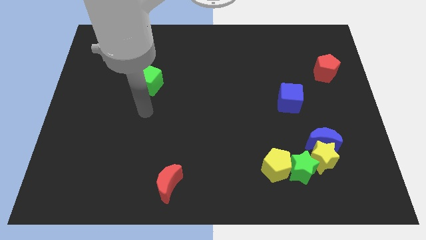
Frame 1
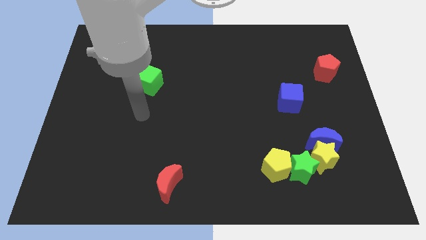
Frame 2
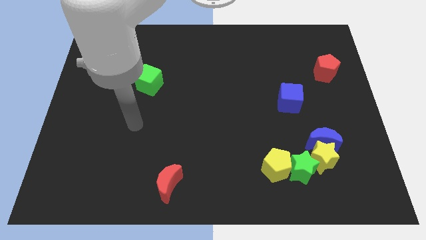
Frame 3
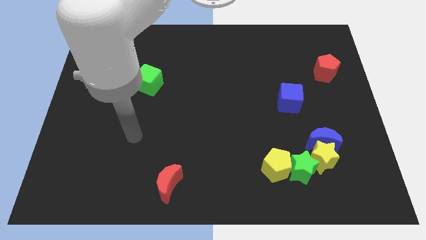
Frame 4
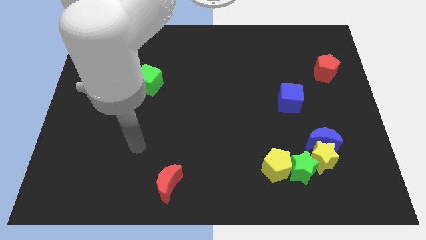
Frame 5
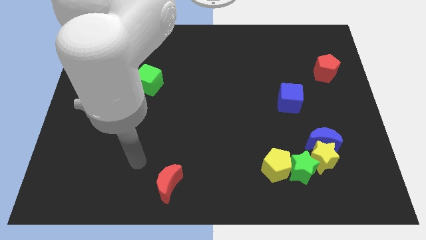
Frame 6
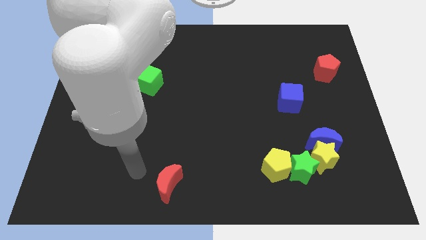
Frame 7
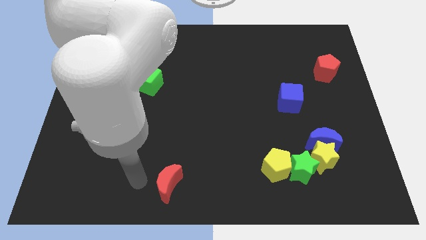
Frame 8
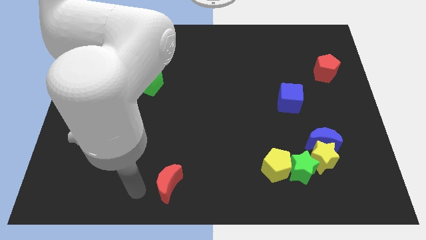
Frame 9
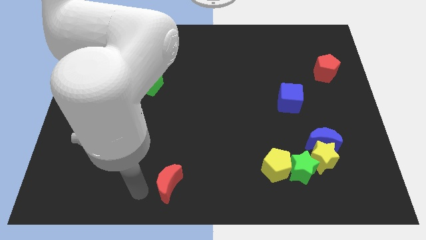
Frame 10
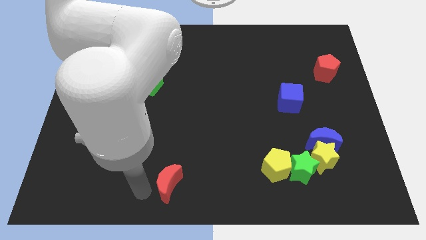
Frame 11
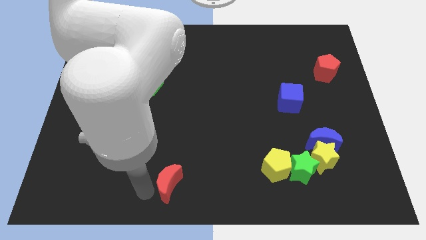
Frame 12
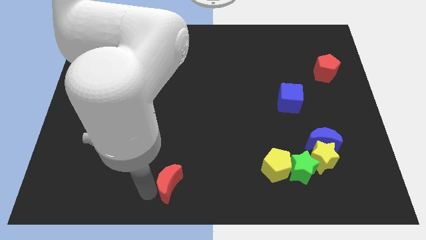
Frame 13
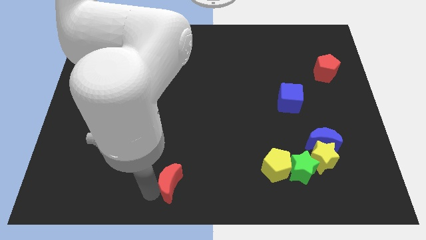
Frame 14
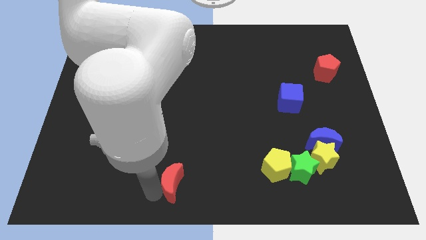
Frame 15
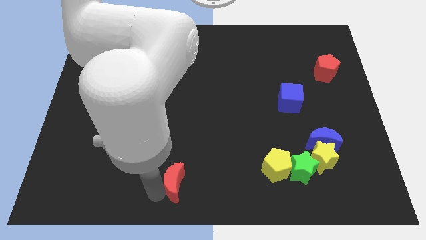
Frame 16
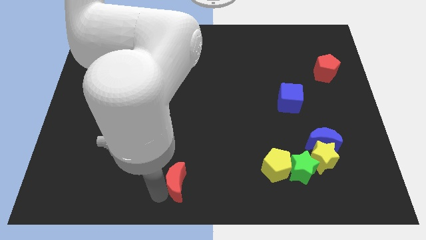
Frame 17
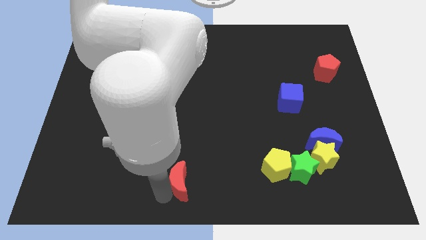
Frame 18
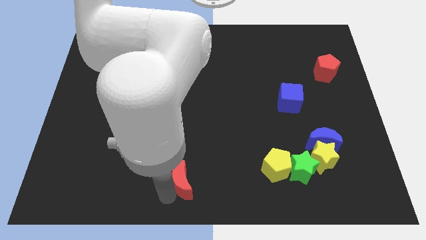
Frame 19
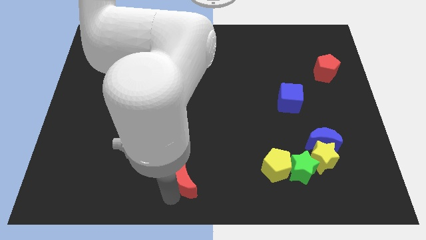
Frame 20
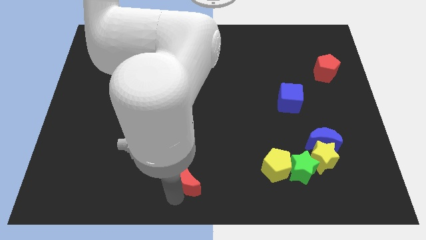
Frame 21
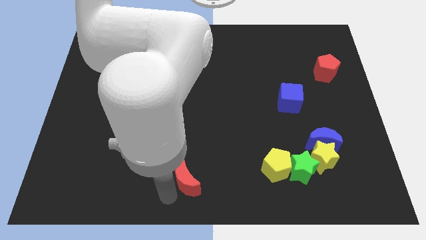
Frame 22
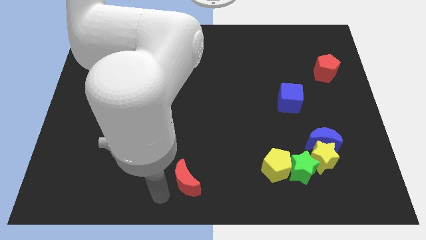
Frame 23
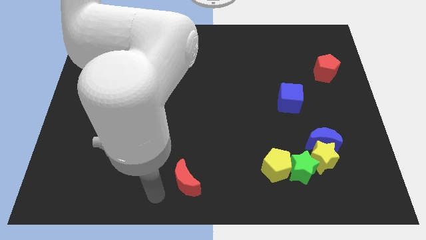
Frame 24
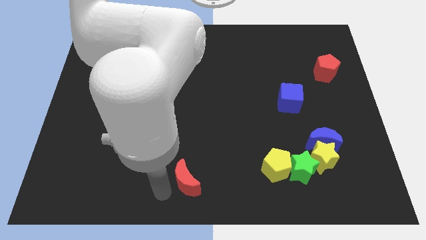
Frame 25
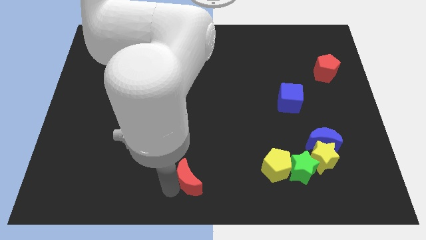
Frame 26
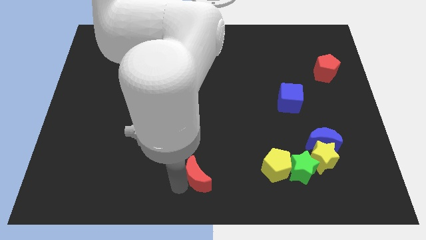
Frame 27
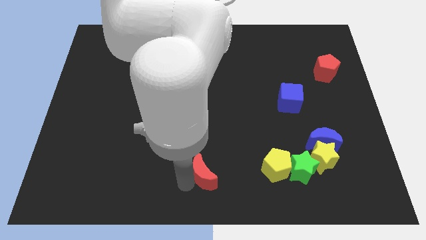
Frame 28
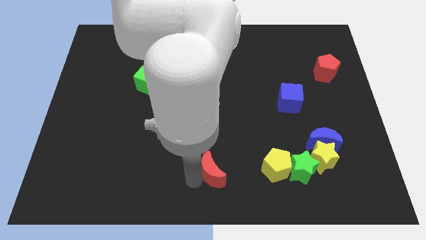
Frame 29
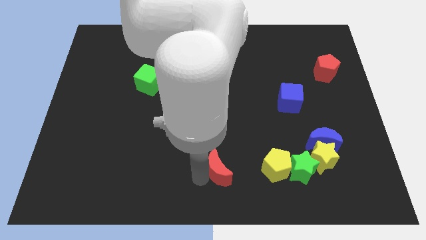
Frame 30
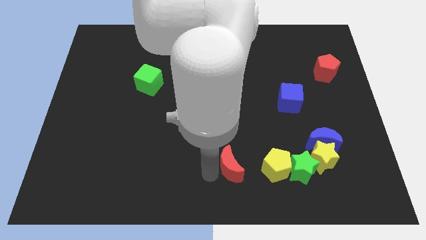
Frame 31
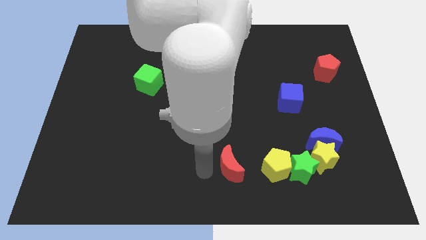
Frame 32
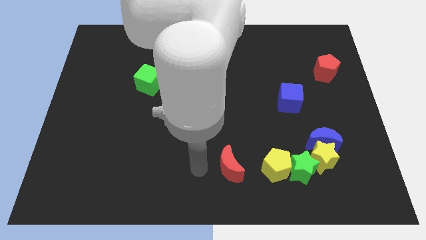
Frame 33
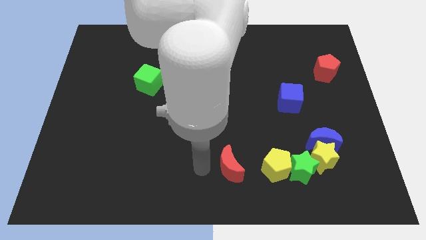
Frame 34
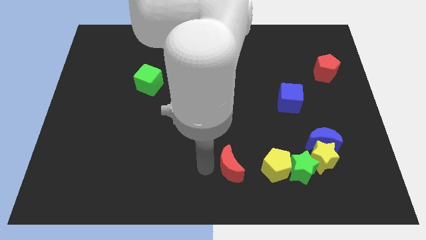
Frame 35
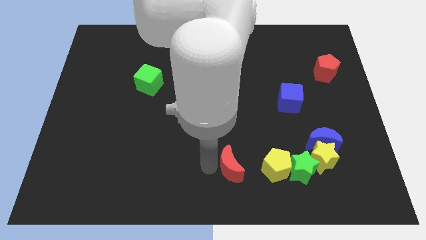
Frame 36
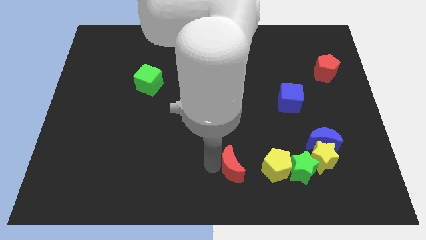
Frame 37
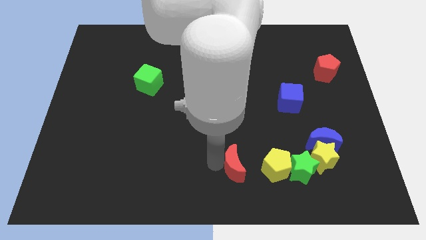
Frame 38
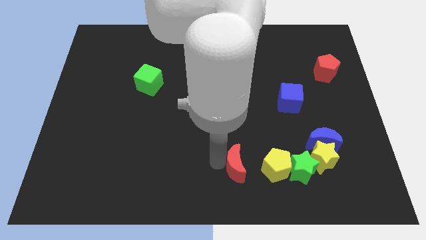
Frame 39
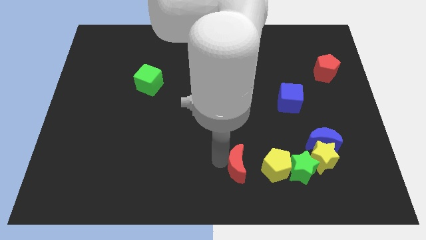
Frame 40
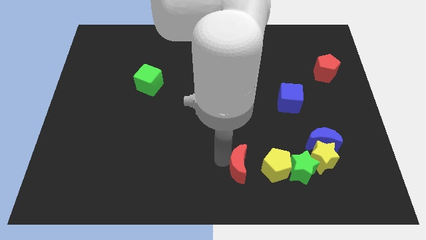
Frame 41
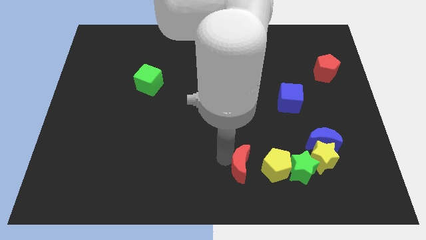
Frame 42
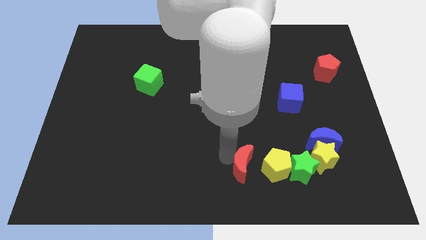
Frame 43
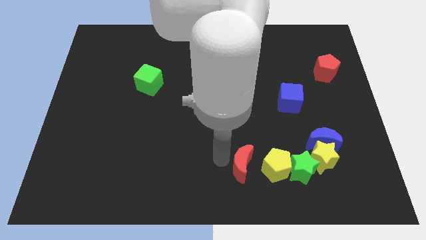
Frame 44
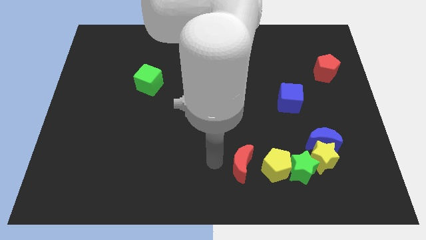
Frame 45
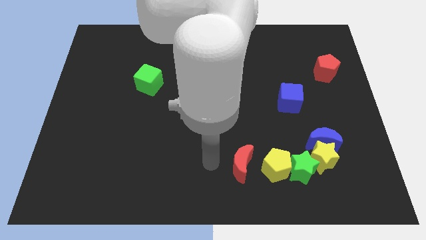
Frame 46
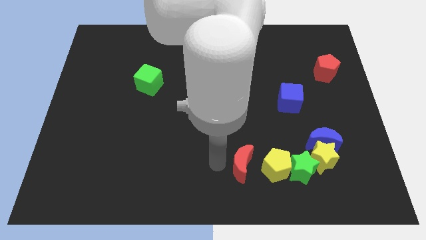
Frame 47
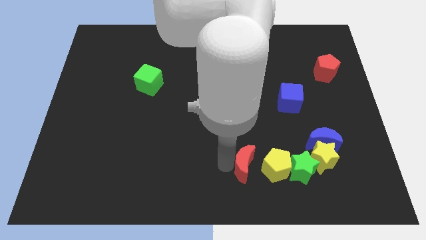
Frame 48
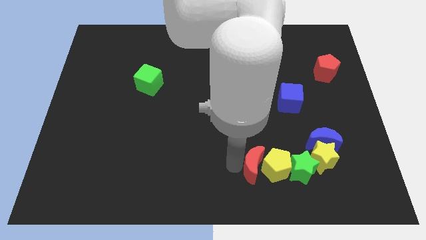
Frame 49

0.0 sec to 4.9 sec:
slide the red moon towards the yellow pentagon

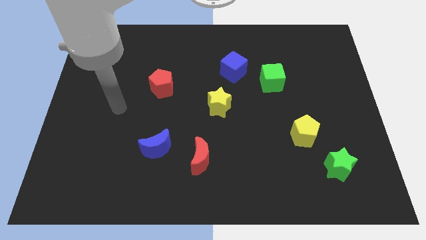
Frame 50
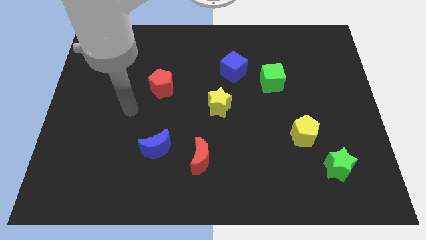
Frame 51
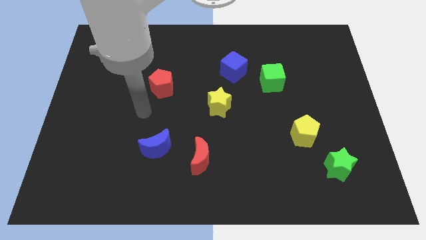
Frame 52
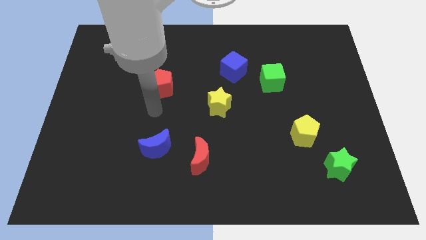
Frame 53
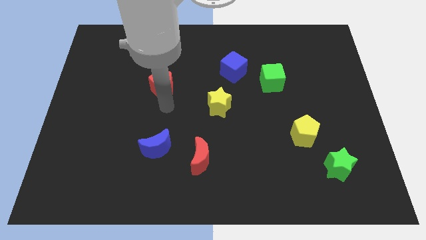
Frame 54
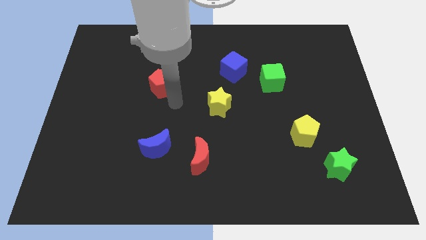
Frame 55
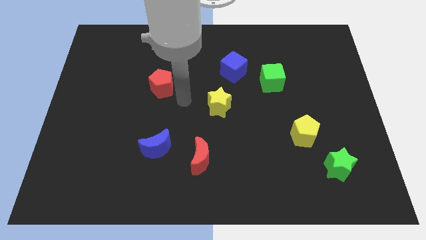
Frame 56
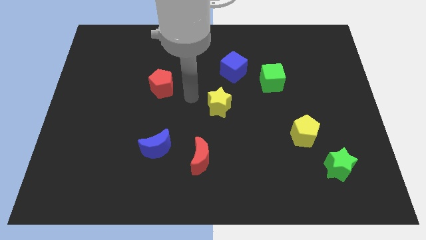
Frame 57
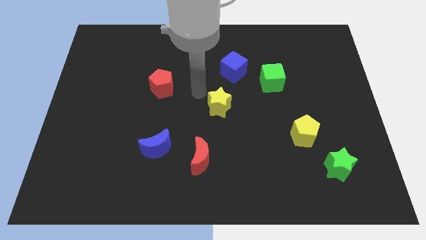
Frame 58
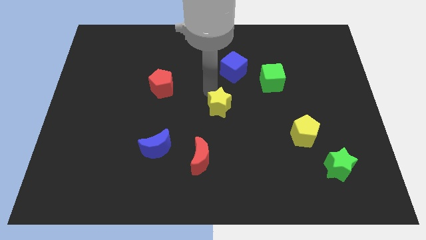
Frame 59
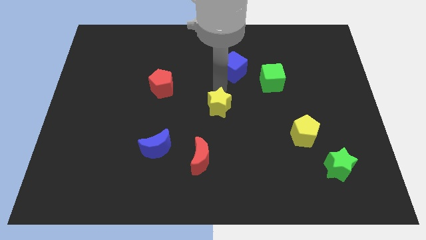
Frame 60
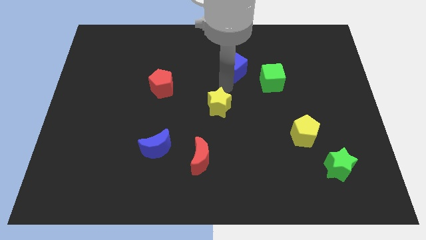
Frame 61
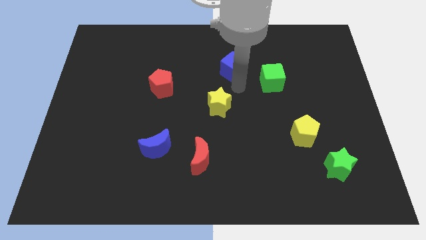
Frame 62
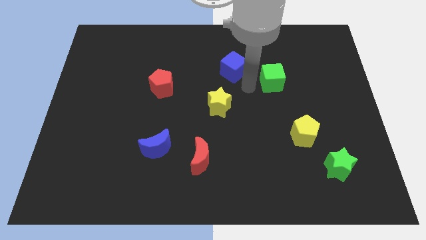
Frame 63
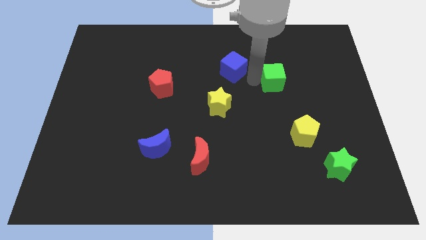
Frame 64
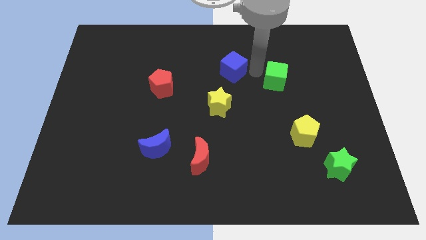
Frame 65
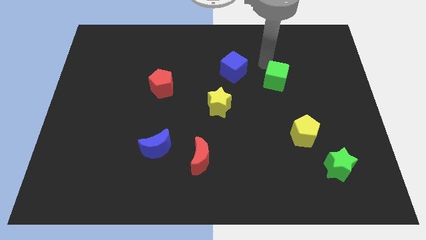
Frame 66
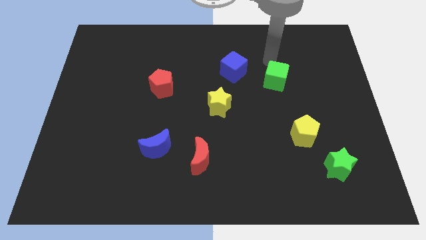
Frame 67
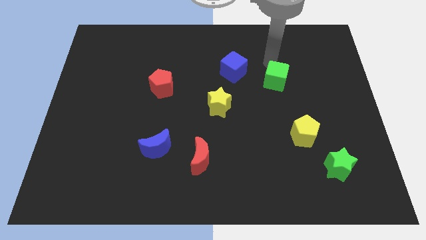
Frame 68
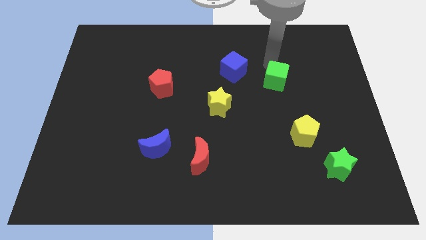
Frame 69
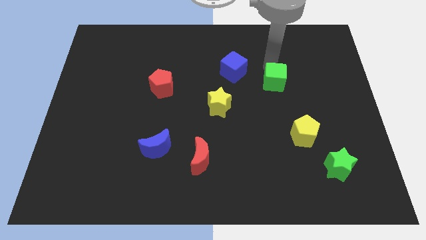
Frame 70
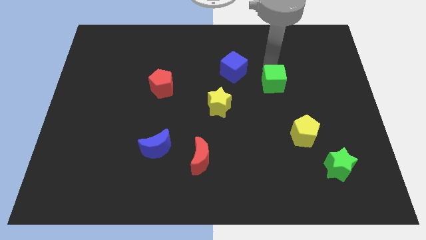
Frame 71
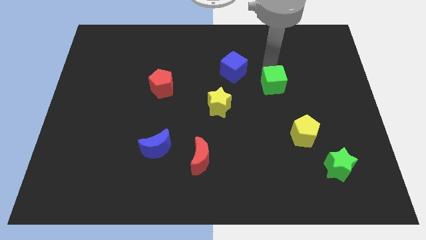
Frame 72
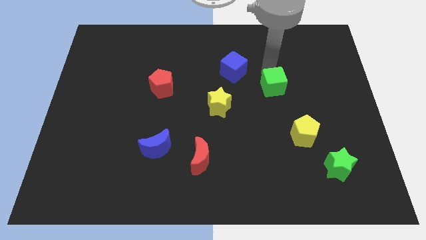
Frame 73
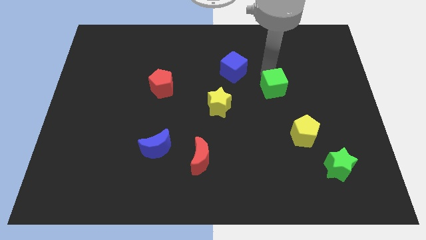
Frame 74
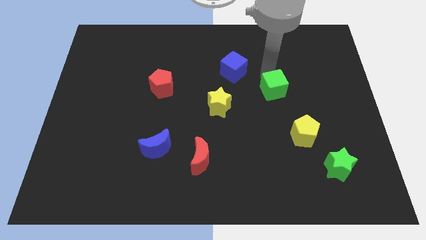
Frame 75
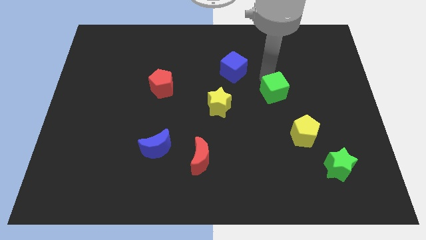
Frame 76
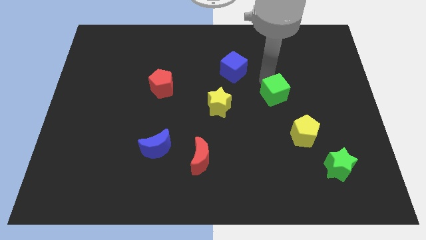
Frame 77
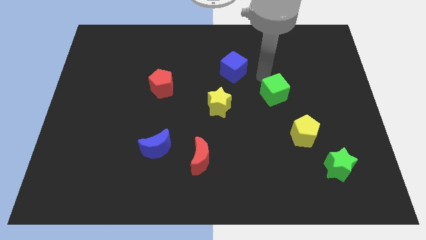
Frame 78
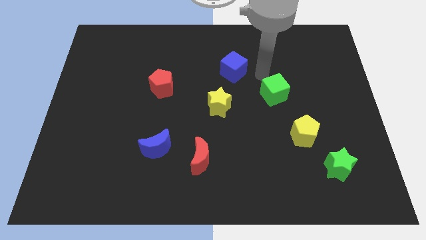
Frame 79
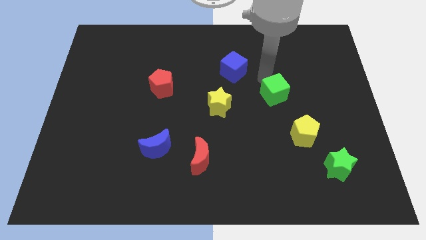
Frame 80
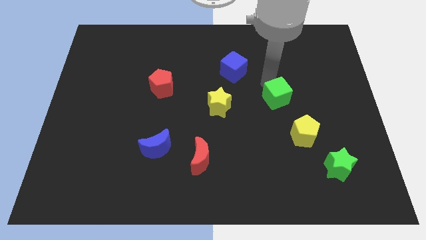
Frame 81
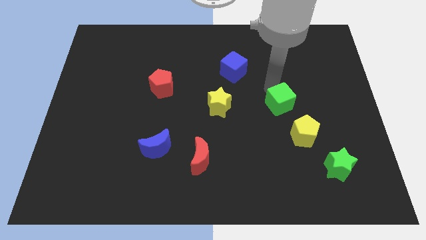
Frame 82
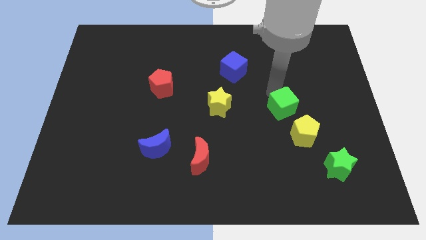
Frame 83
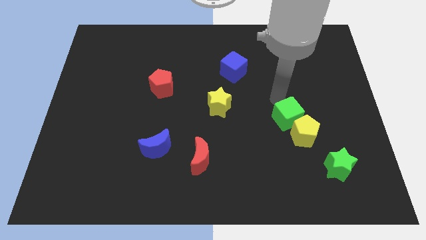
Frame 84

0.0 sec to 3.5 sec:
slide the green cube to the yellow pentagon
